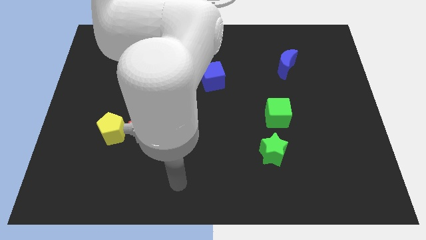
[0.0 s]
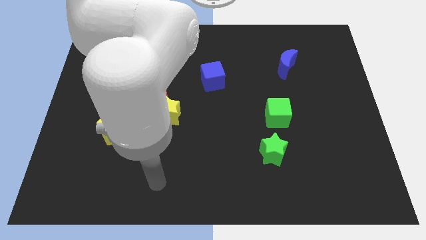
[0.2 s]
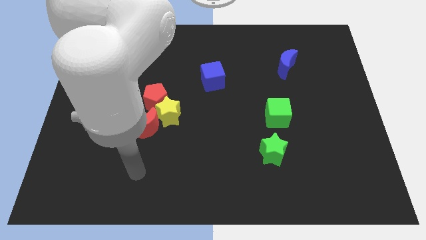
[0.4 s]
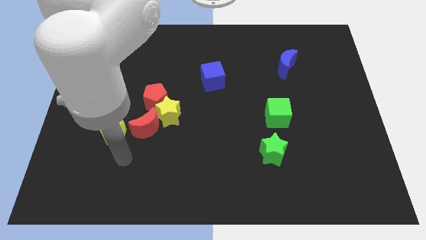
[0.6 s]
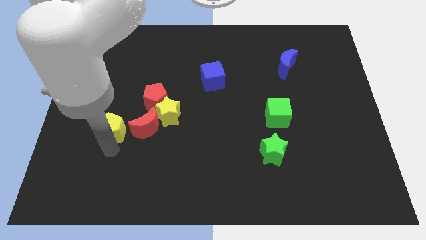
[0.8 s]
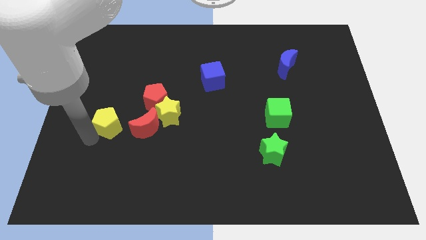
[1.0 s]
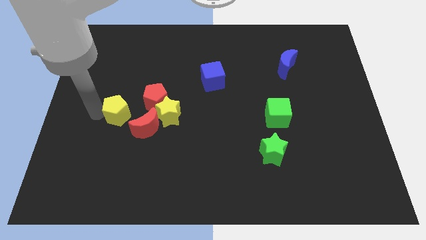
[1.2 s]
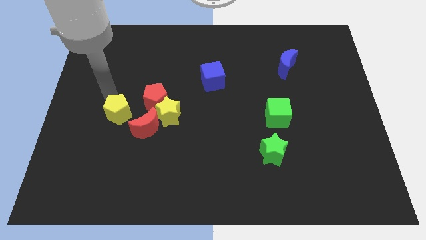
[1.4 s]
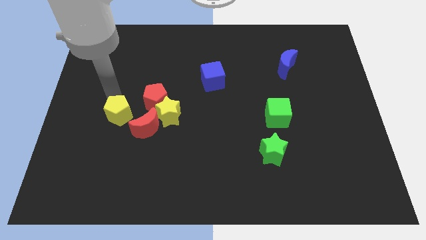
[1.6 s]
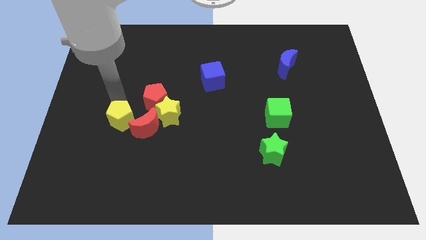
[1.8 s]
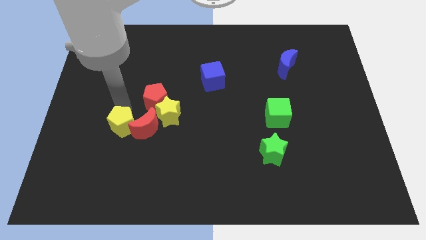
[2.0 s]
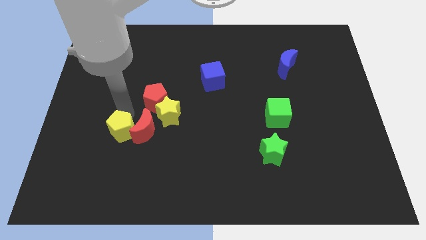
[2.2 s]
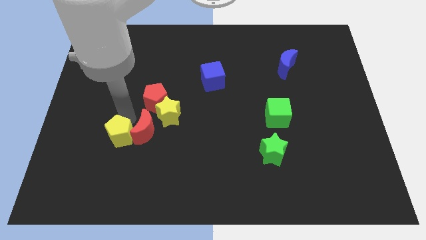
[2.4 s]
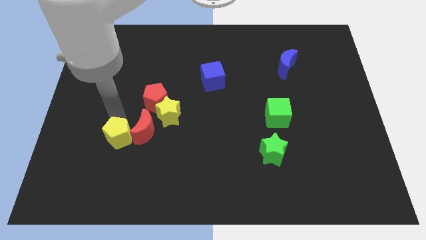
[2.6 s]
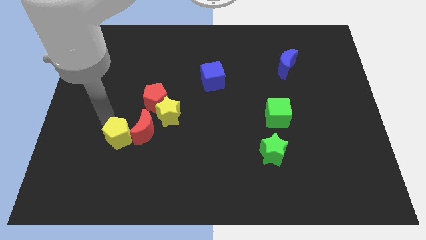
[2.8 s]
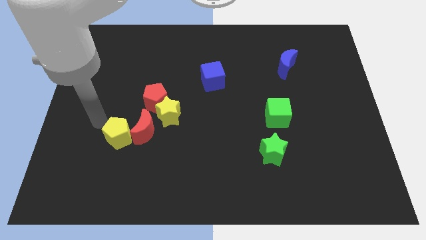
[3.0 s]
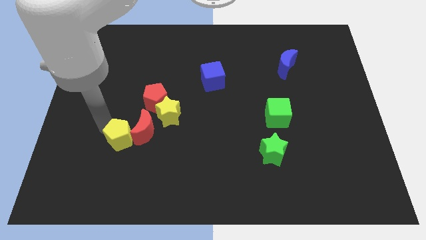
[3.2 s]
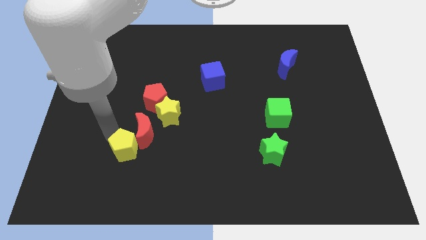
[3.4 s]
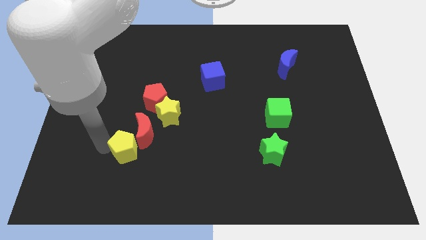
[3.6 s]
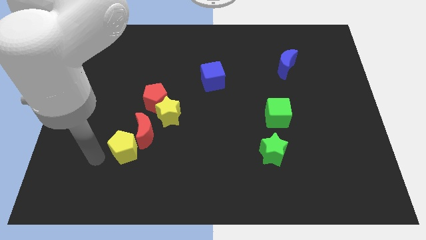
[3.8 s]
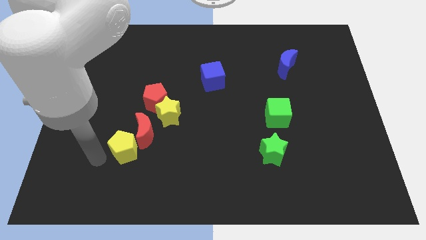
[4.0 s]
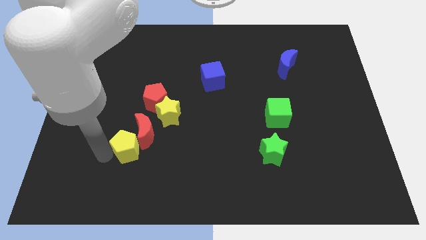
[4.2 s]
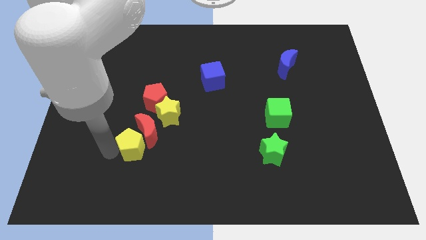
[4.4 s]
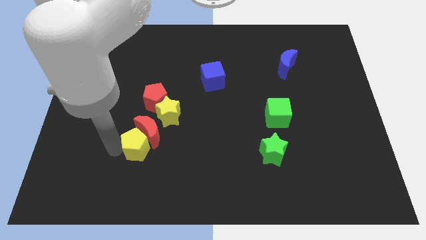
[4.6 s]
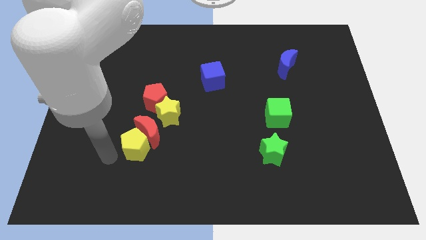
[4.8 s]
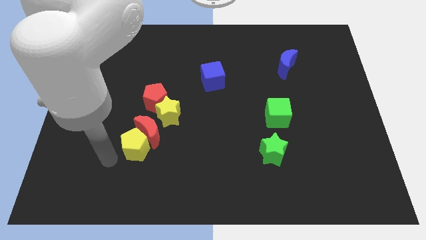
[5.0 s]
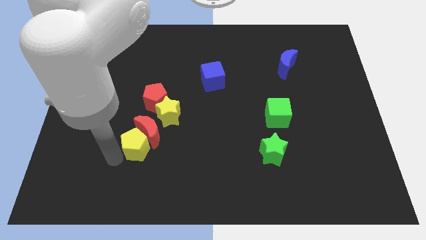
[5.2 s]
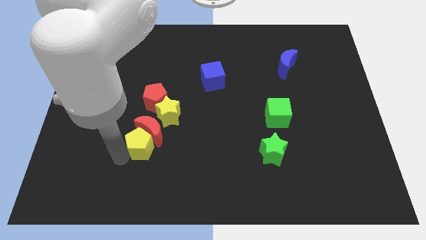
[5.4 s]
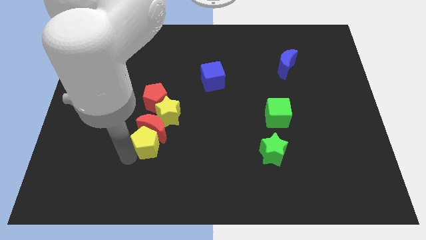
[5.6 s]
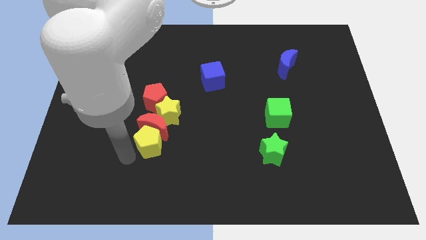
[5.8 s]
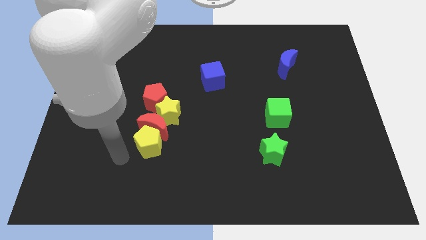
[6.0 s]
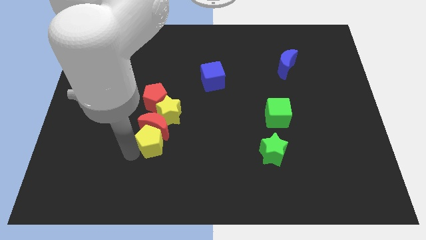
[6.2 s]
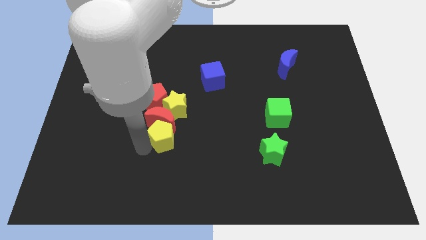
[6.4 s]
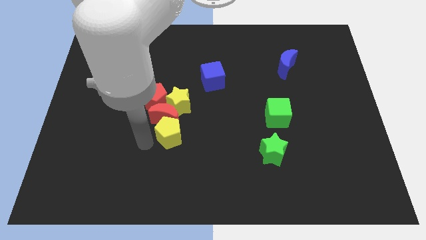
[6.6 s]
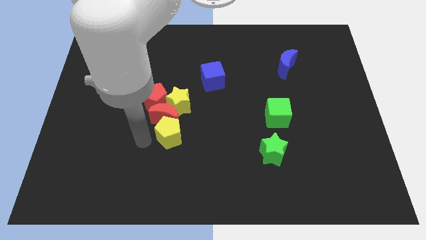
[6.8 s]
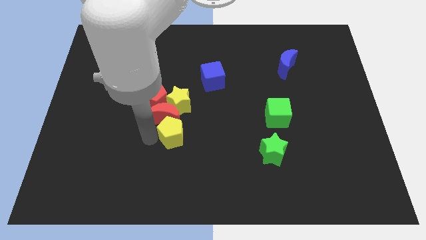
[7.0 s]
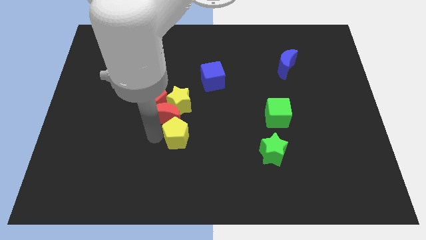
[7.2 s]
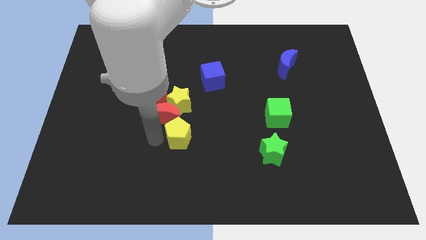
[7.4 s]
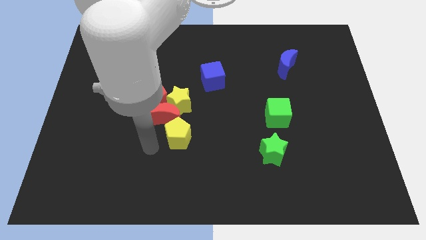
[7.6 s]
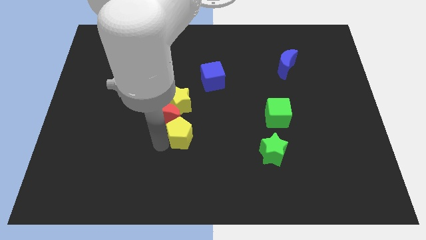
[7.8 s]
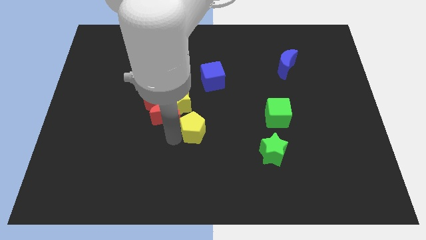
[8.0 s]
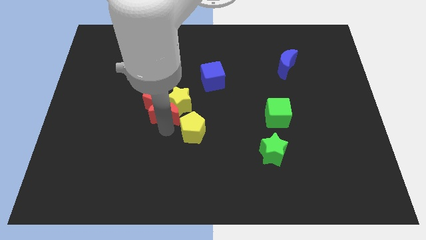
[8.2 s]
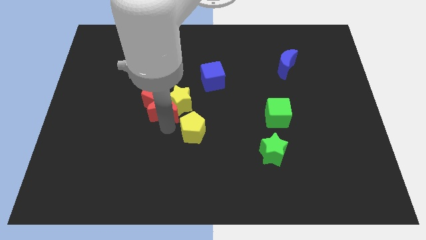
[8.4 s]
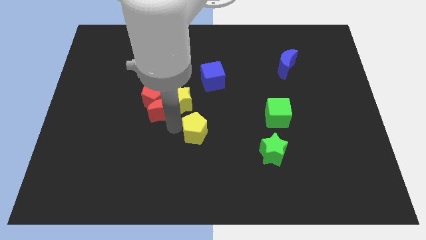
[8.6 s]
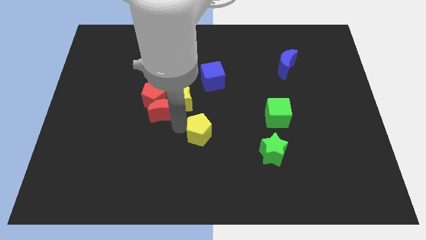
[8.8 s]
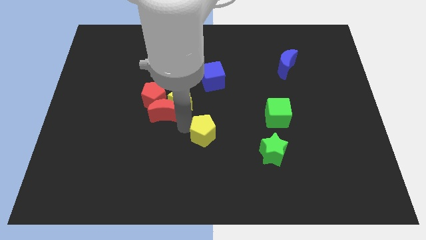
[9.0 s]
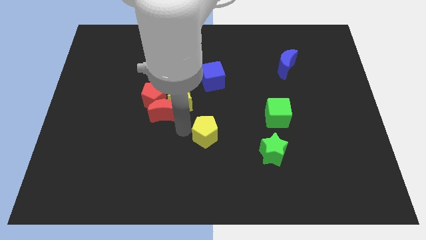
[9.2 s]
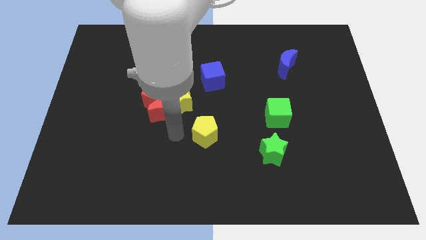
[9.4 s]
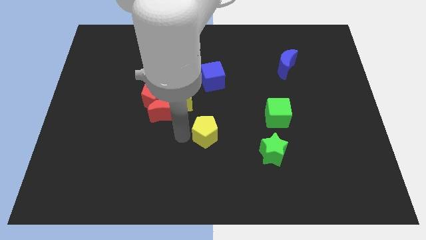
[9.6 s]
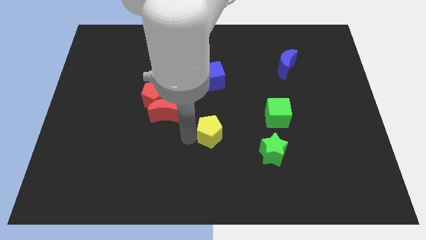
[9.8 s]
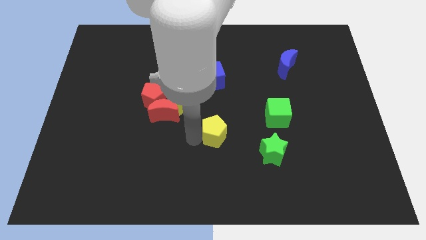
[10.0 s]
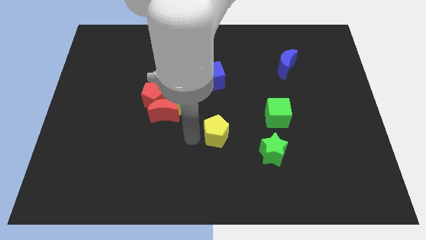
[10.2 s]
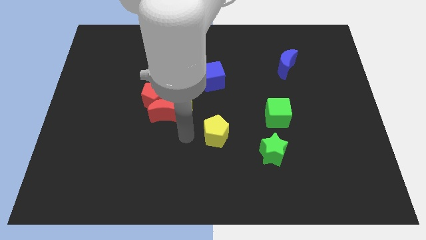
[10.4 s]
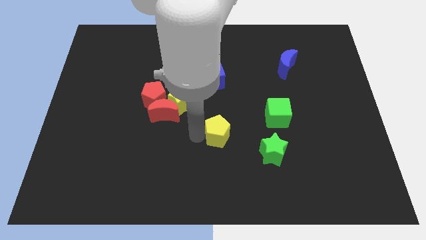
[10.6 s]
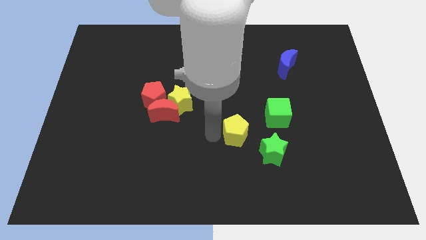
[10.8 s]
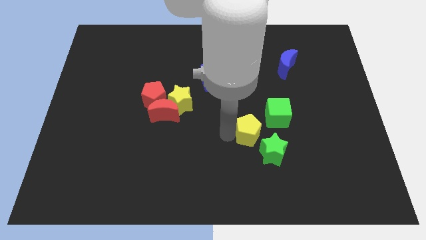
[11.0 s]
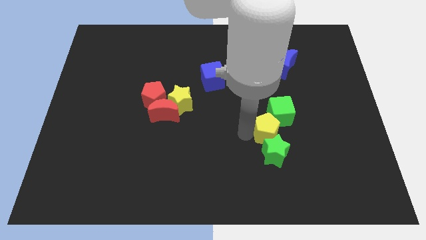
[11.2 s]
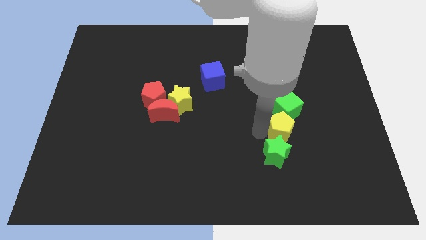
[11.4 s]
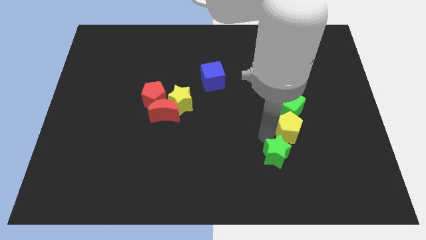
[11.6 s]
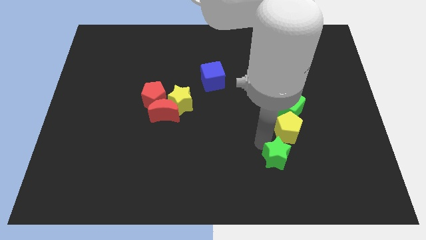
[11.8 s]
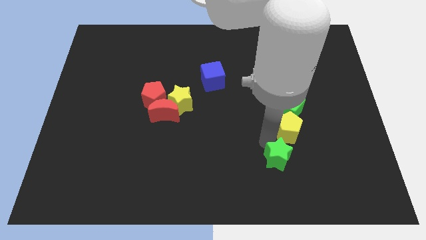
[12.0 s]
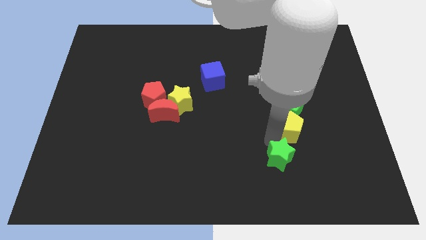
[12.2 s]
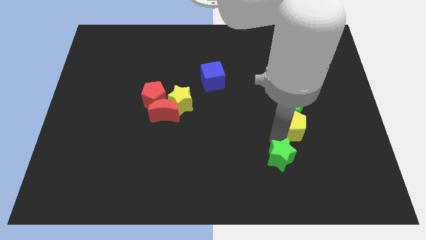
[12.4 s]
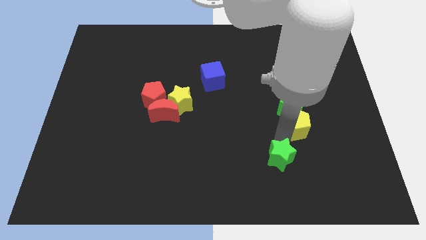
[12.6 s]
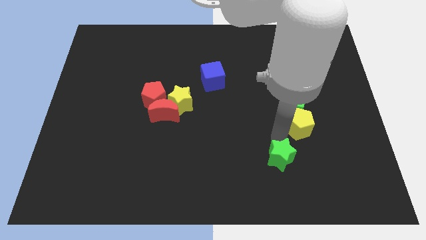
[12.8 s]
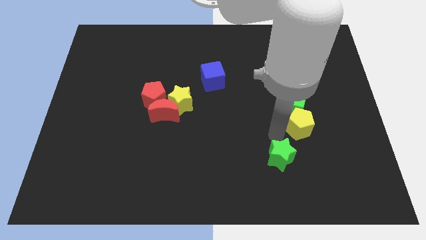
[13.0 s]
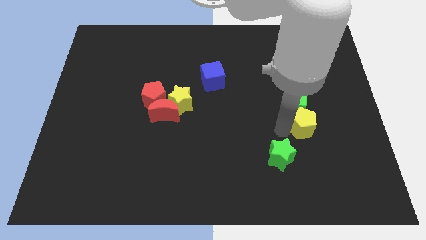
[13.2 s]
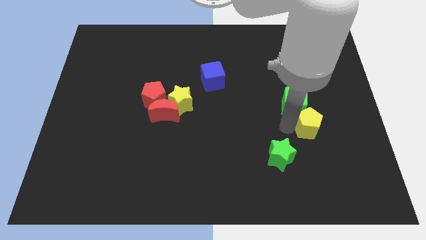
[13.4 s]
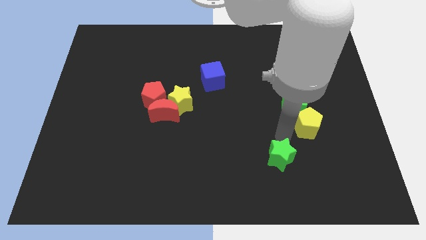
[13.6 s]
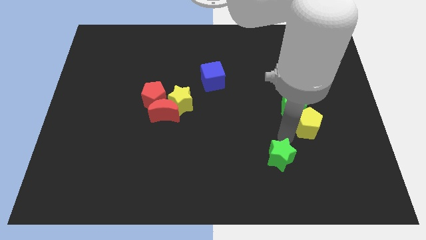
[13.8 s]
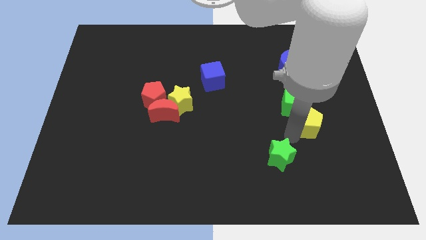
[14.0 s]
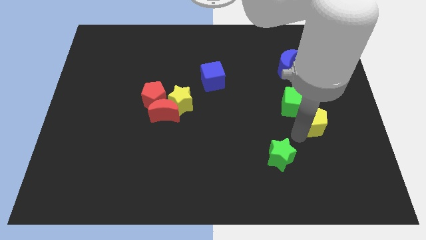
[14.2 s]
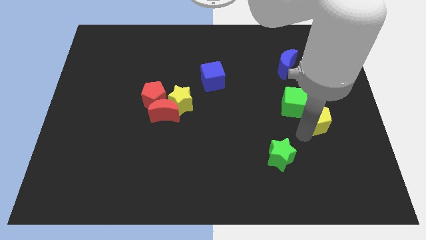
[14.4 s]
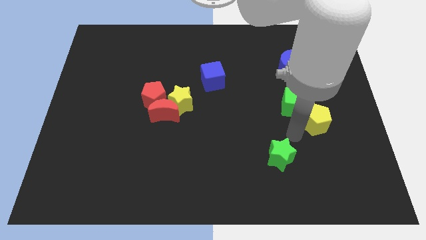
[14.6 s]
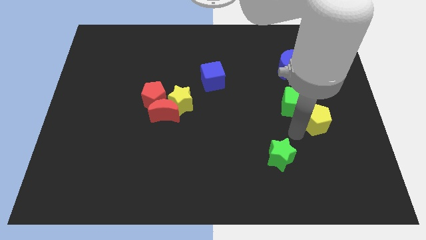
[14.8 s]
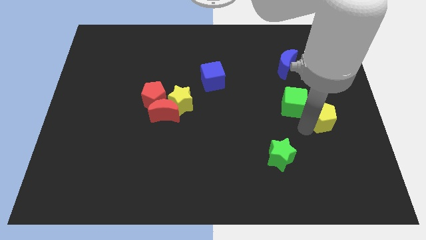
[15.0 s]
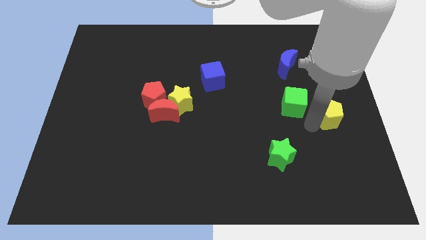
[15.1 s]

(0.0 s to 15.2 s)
put the yellow pentagon to the right side of the board
